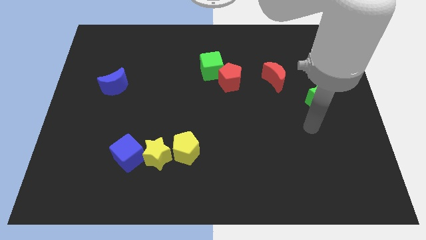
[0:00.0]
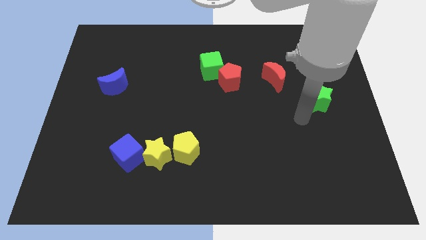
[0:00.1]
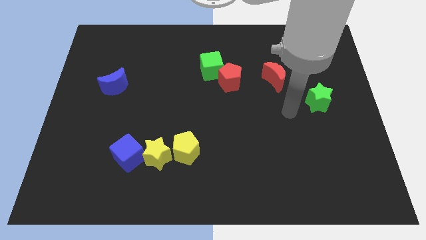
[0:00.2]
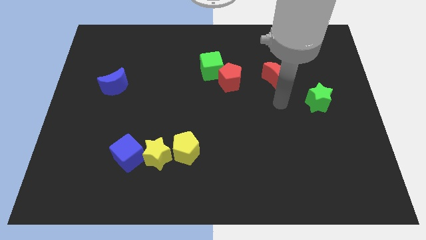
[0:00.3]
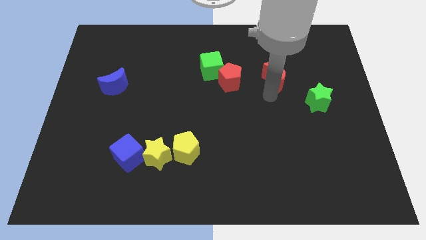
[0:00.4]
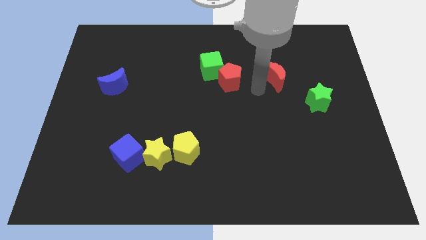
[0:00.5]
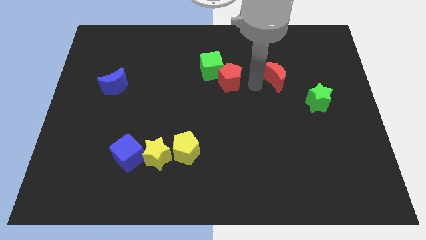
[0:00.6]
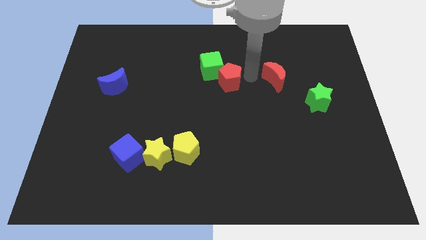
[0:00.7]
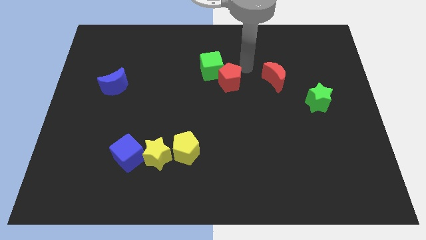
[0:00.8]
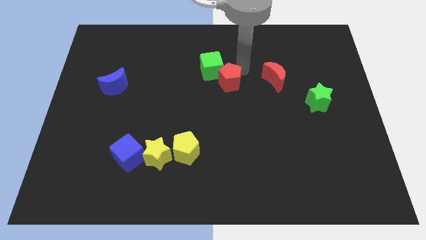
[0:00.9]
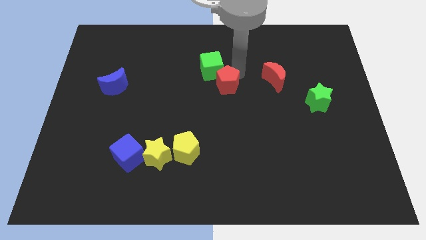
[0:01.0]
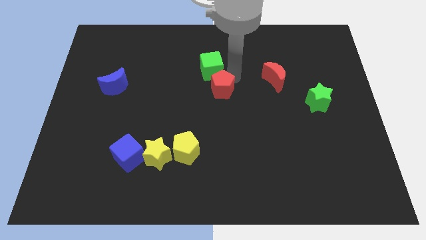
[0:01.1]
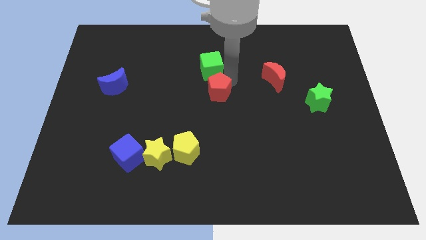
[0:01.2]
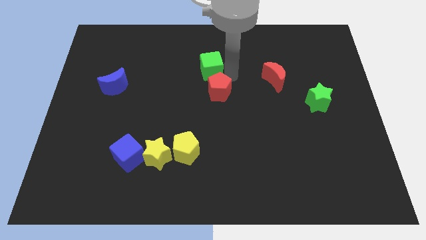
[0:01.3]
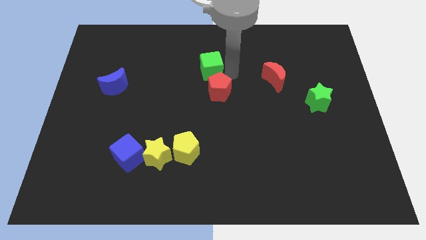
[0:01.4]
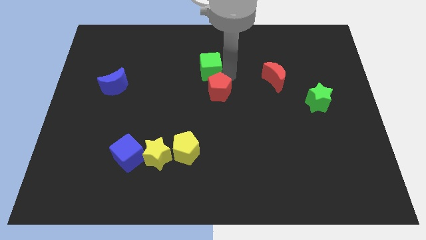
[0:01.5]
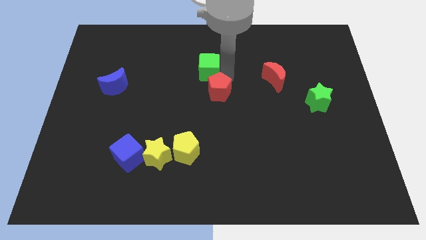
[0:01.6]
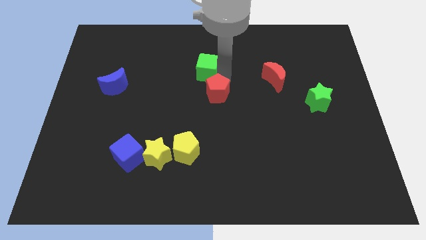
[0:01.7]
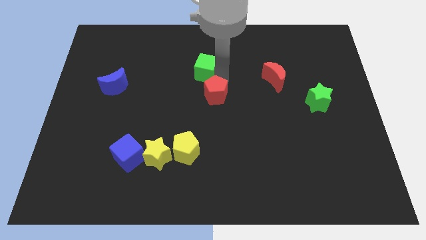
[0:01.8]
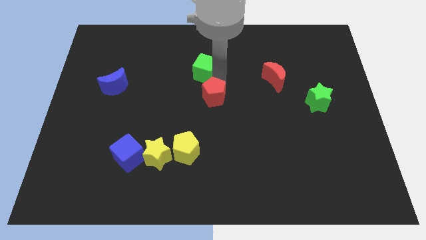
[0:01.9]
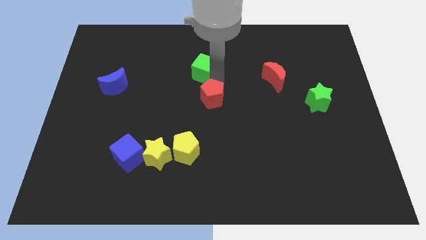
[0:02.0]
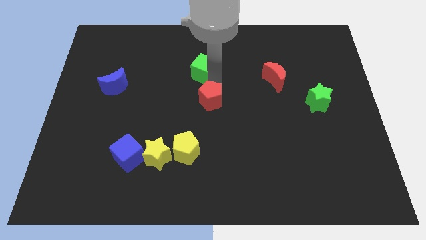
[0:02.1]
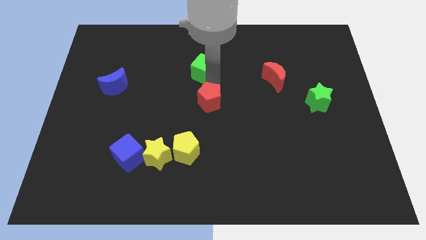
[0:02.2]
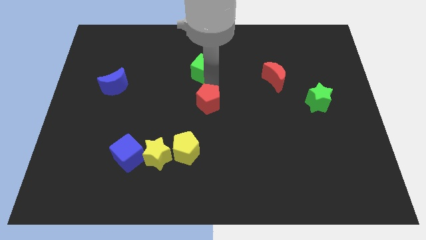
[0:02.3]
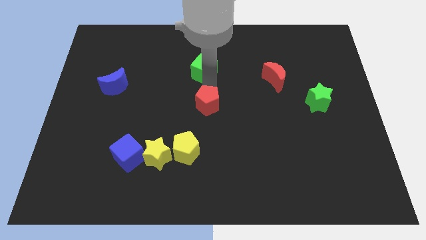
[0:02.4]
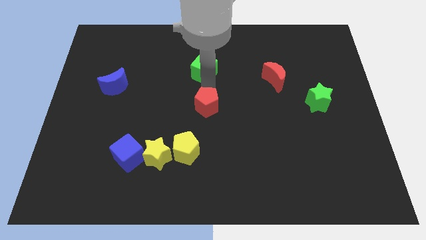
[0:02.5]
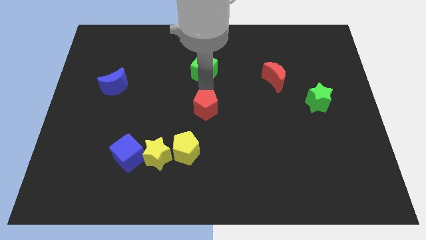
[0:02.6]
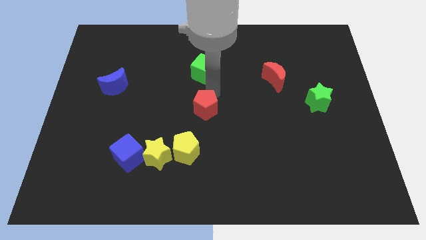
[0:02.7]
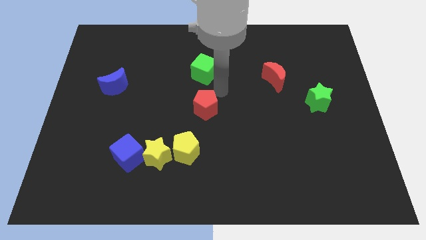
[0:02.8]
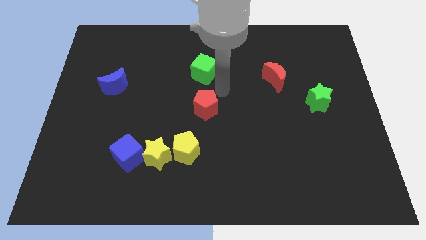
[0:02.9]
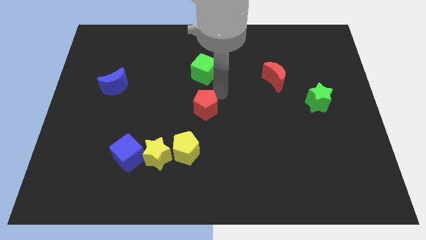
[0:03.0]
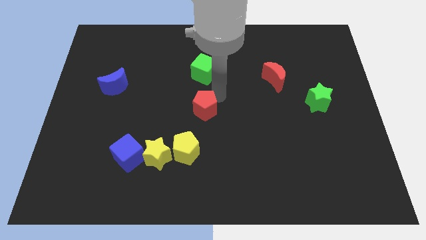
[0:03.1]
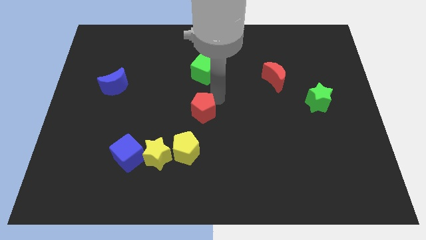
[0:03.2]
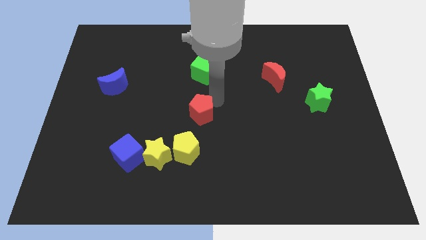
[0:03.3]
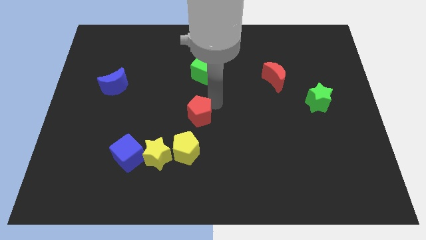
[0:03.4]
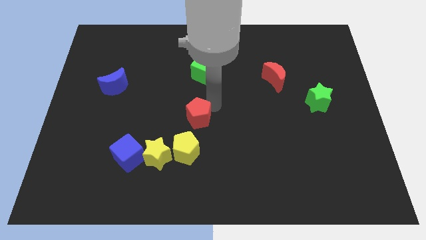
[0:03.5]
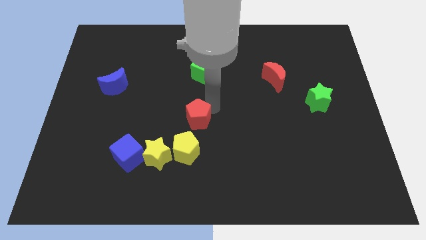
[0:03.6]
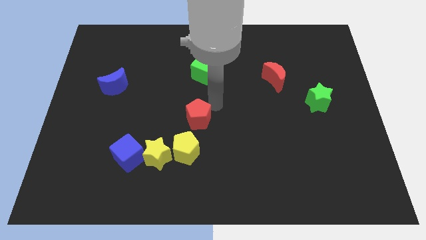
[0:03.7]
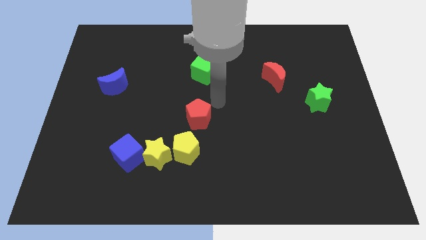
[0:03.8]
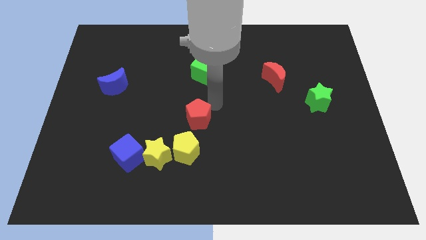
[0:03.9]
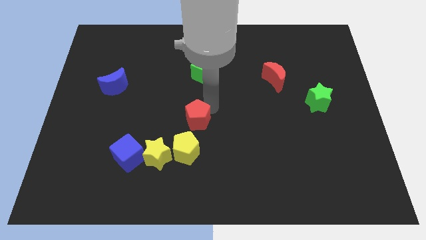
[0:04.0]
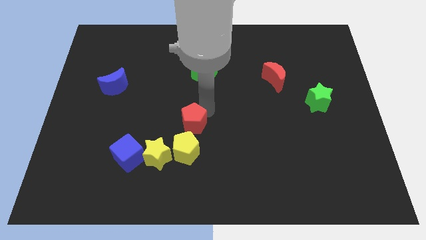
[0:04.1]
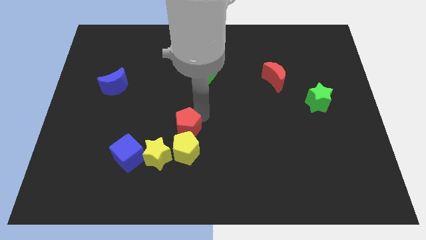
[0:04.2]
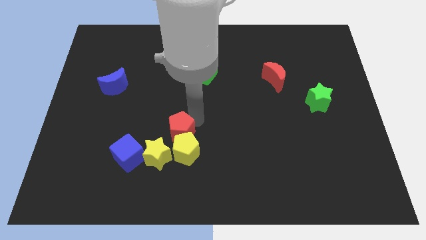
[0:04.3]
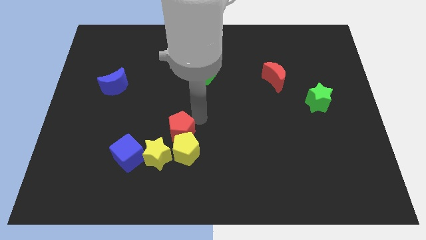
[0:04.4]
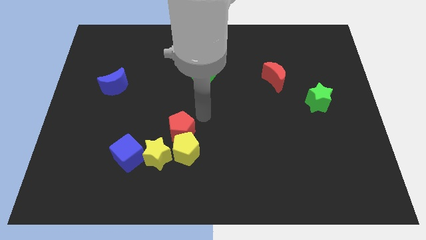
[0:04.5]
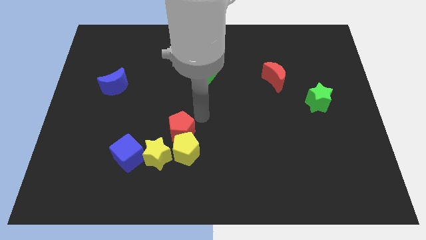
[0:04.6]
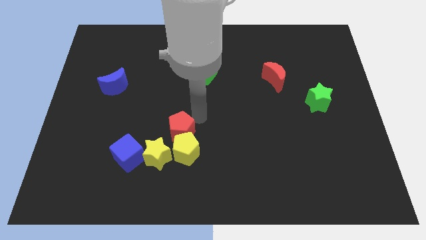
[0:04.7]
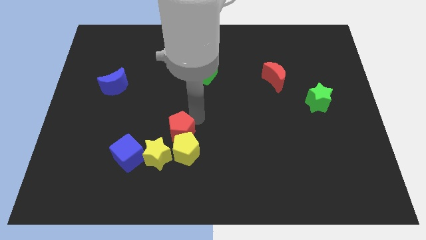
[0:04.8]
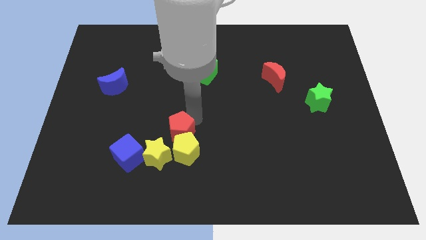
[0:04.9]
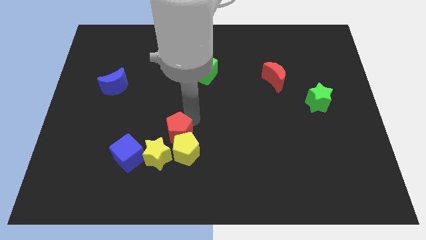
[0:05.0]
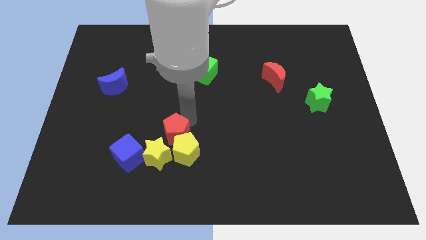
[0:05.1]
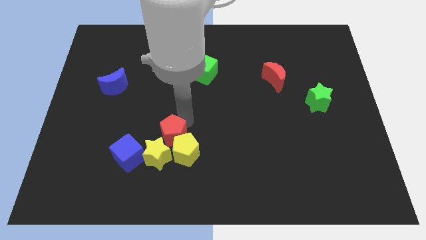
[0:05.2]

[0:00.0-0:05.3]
slide the red pentagon close to the yellow star

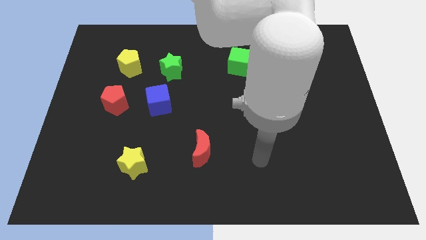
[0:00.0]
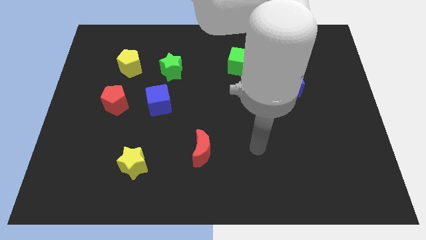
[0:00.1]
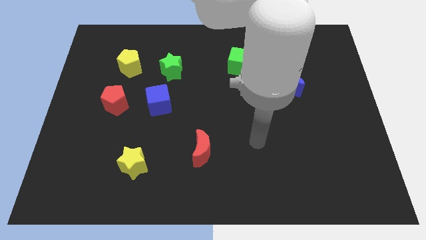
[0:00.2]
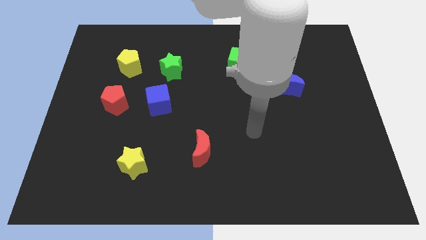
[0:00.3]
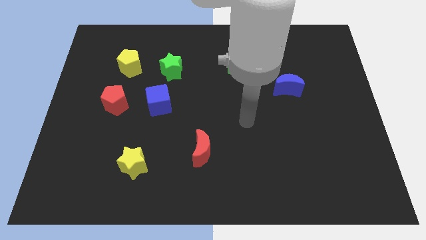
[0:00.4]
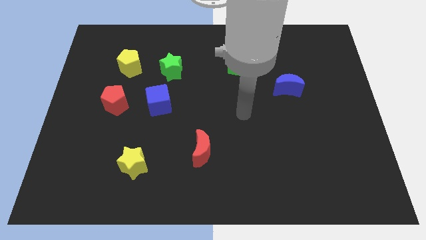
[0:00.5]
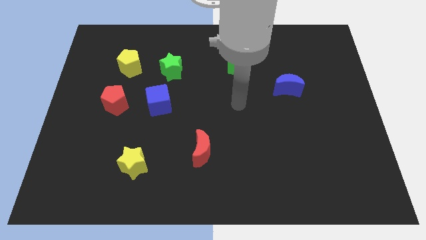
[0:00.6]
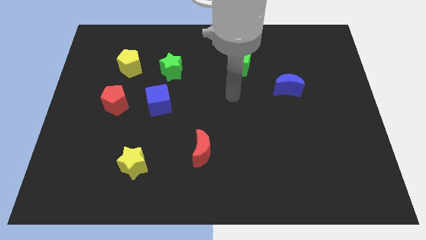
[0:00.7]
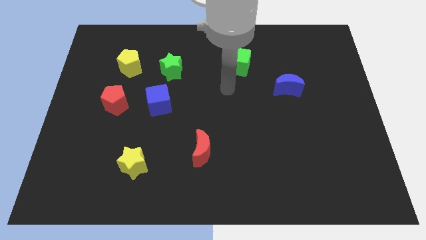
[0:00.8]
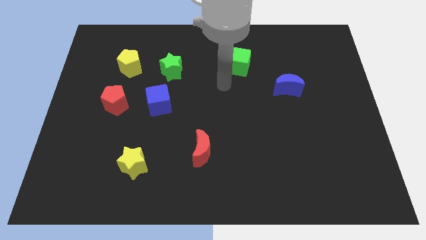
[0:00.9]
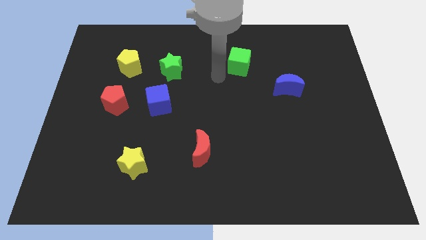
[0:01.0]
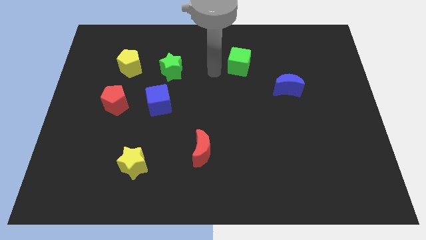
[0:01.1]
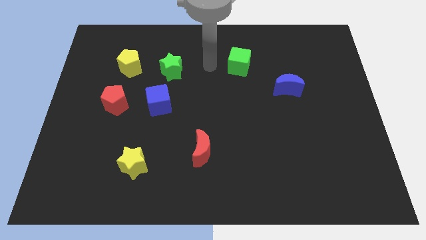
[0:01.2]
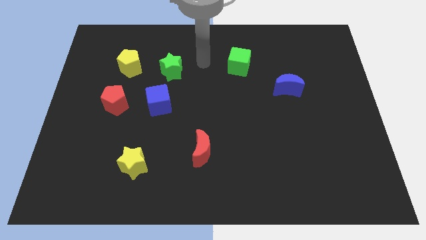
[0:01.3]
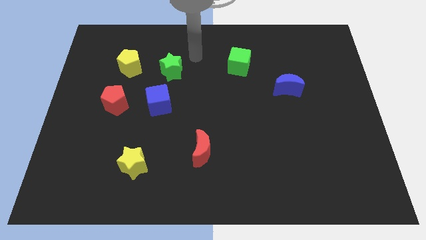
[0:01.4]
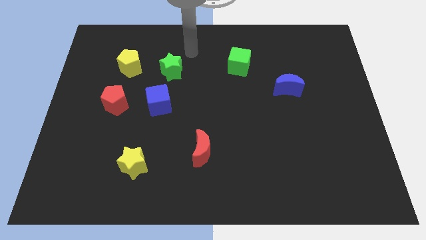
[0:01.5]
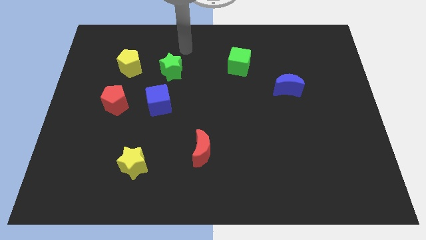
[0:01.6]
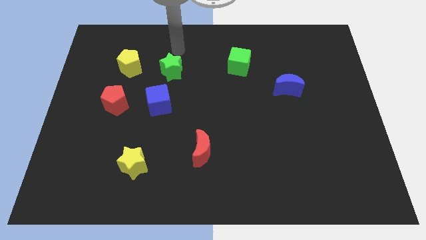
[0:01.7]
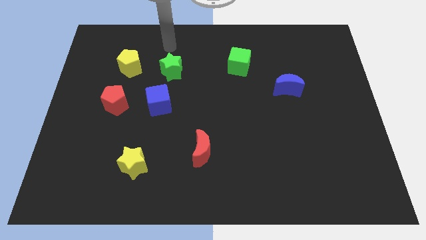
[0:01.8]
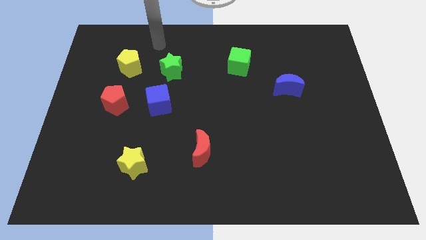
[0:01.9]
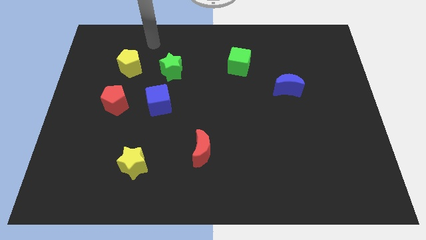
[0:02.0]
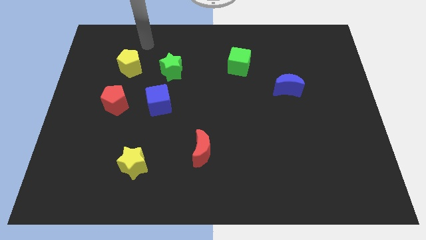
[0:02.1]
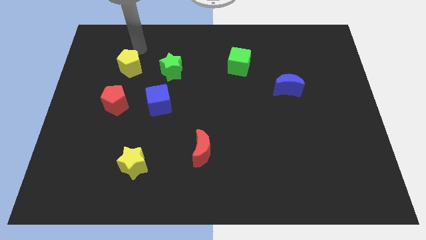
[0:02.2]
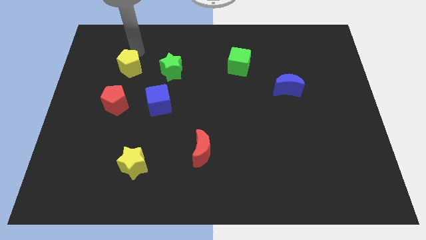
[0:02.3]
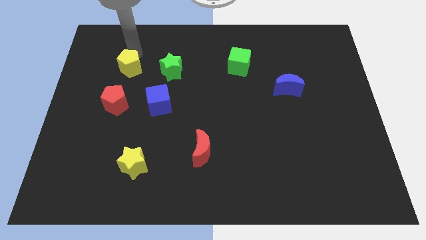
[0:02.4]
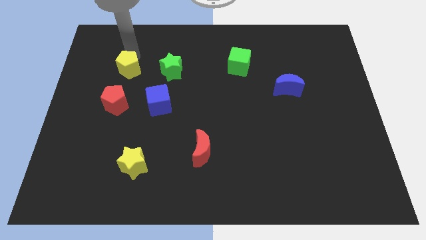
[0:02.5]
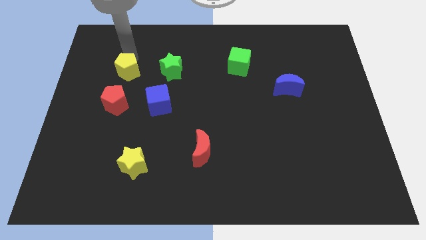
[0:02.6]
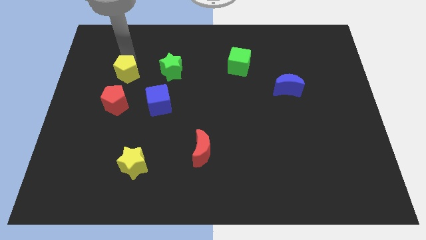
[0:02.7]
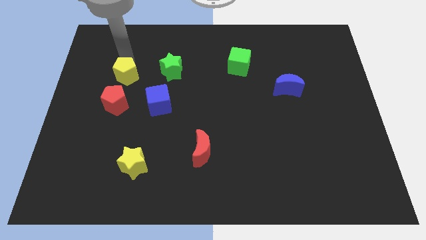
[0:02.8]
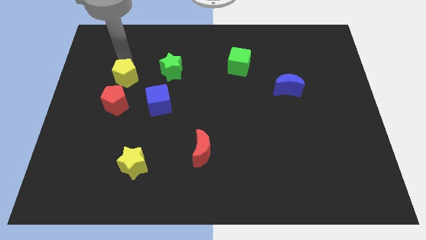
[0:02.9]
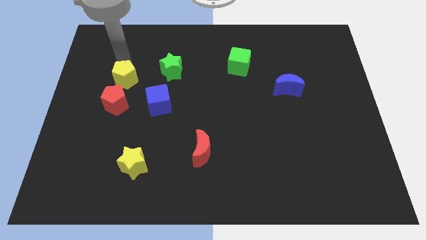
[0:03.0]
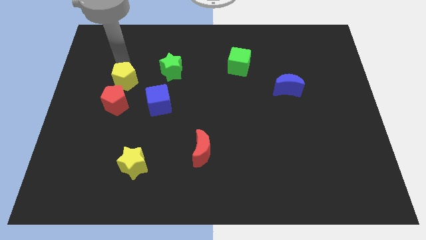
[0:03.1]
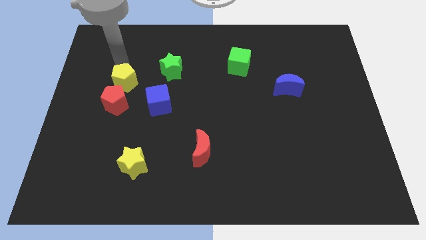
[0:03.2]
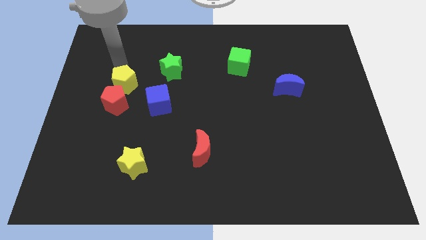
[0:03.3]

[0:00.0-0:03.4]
push the yellow pentagon to the red pentagon
